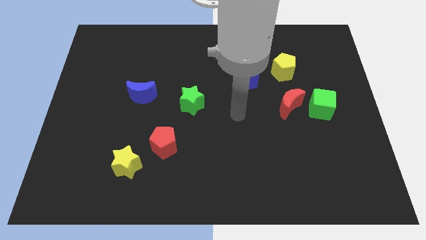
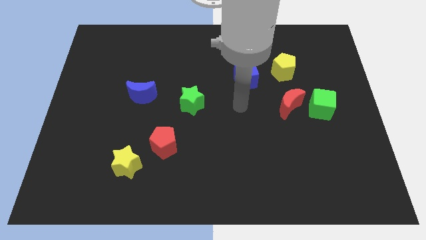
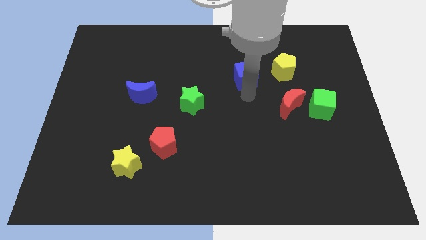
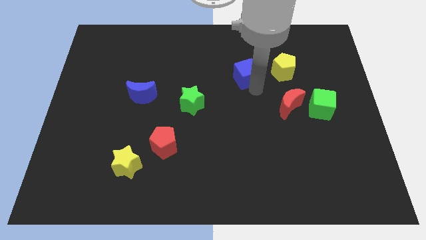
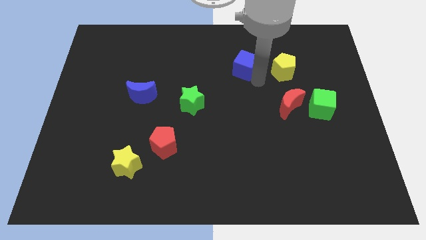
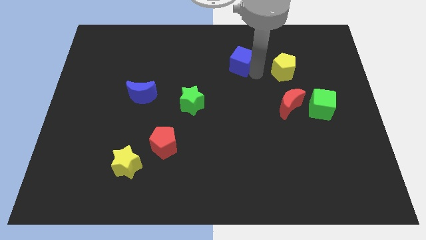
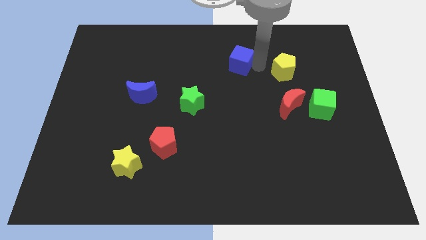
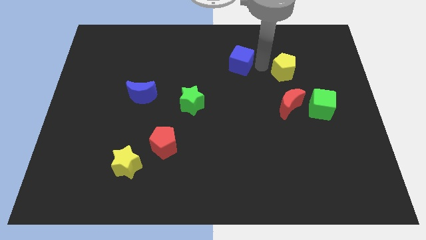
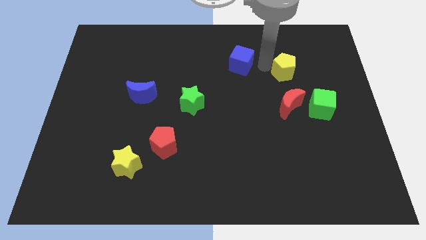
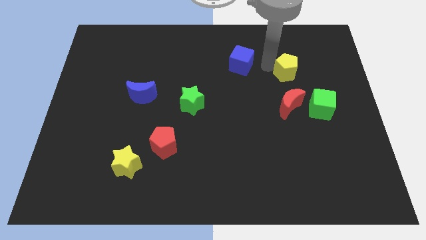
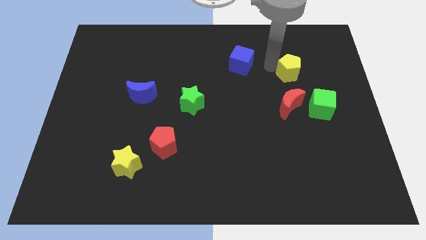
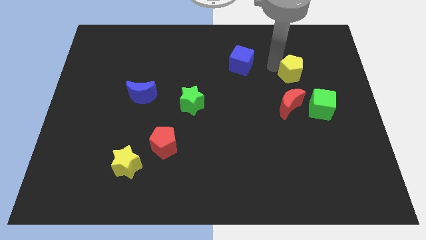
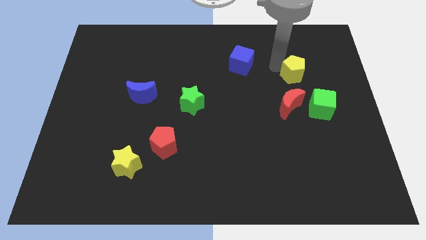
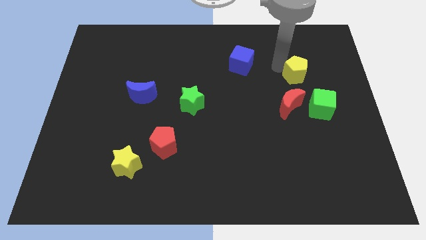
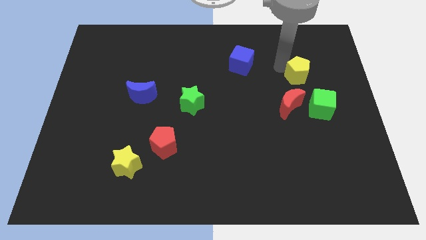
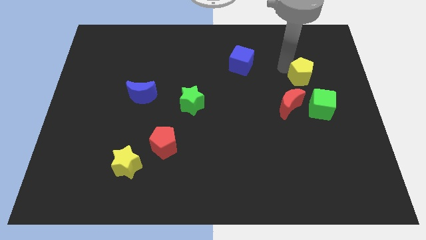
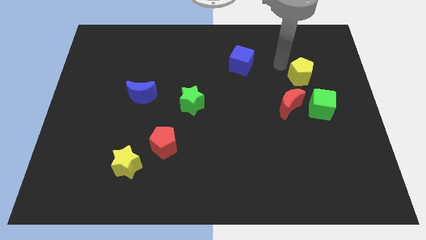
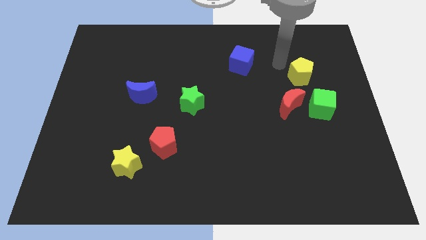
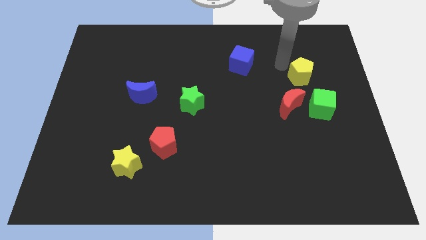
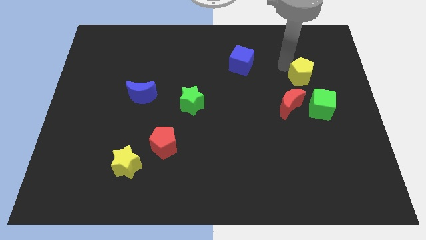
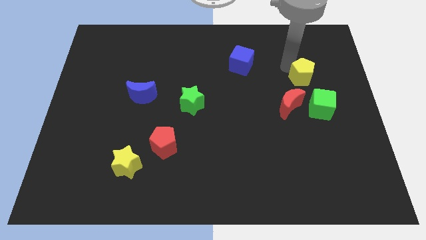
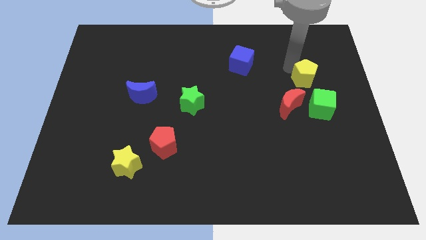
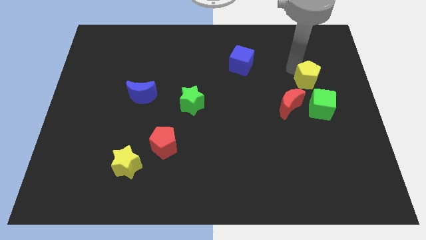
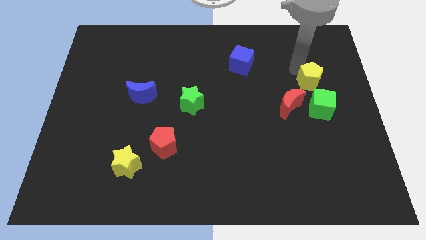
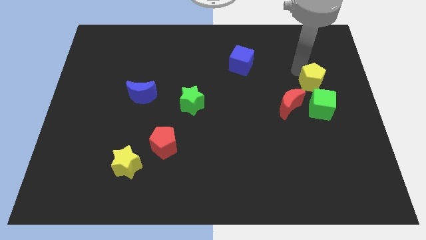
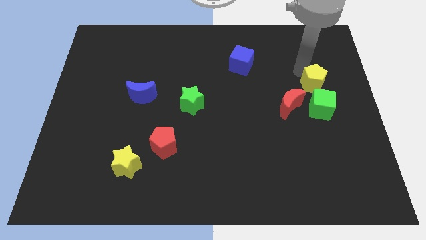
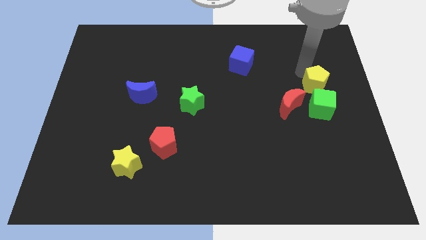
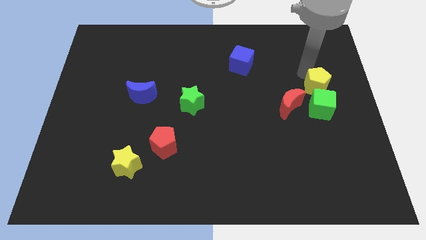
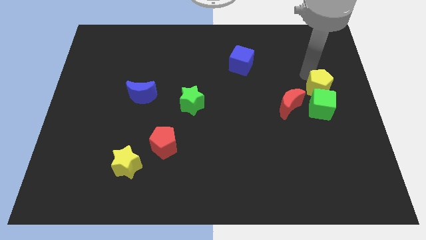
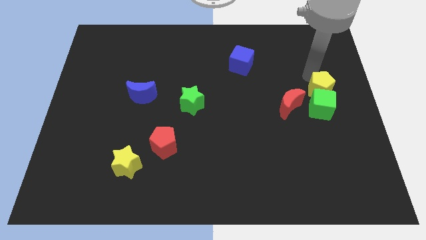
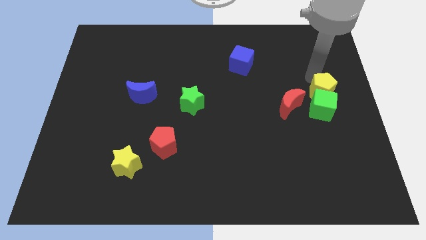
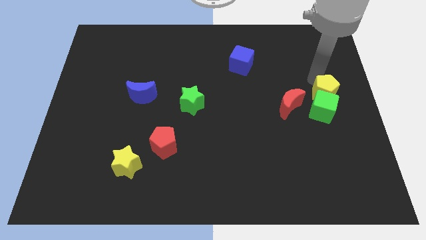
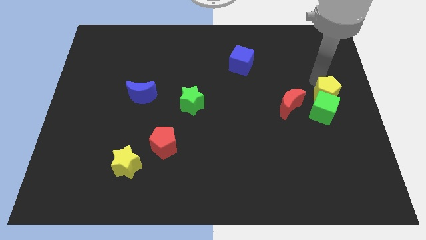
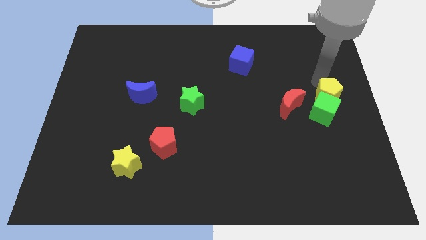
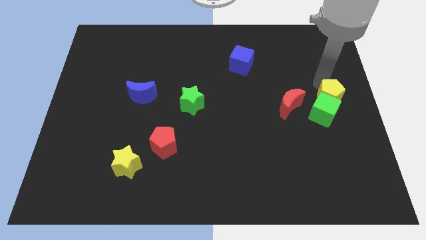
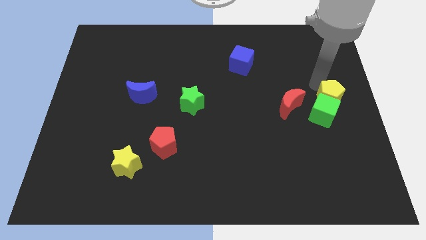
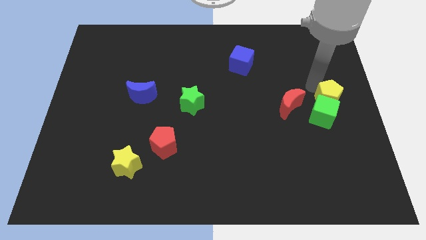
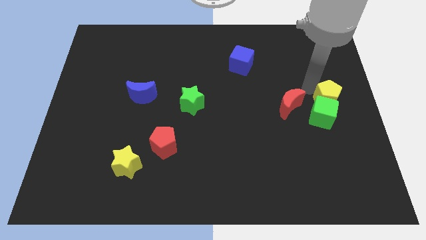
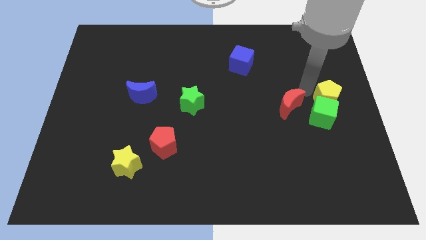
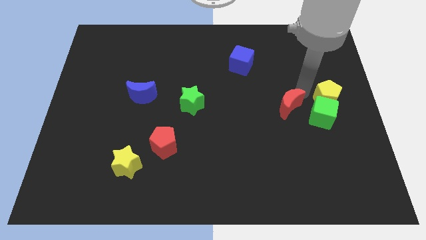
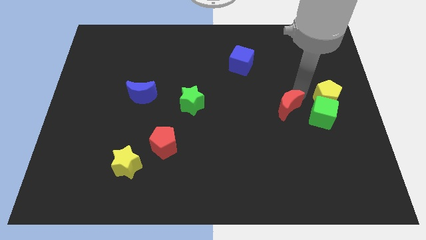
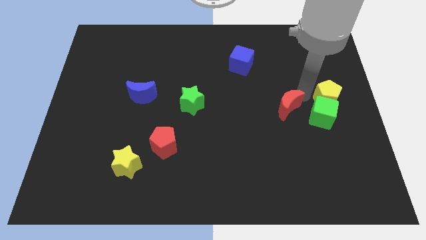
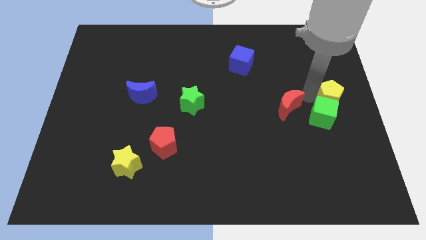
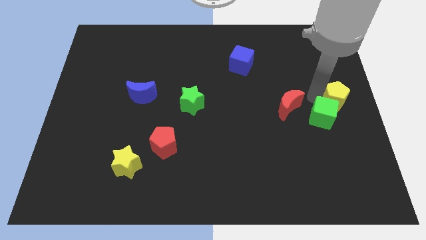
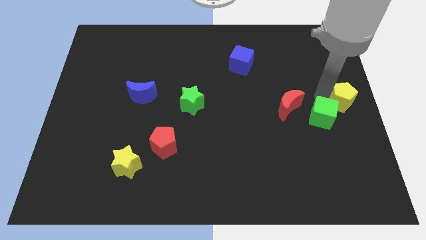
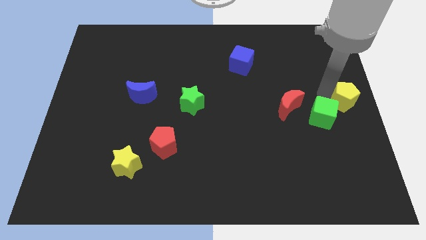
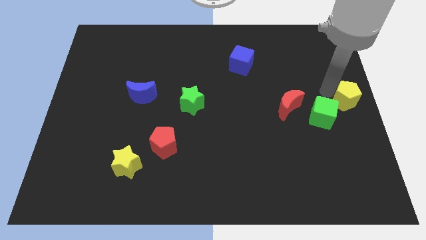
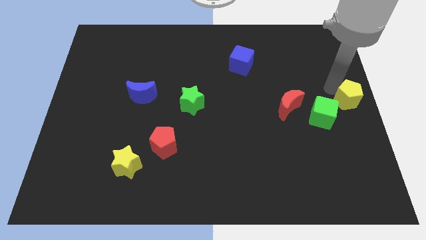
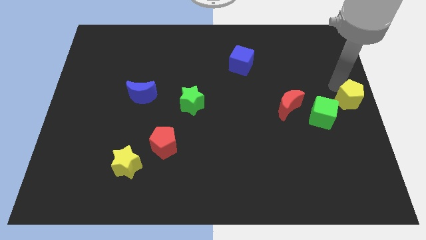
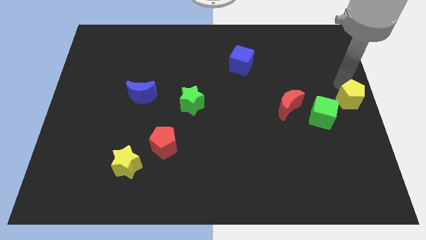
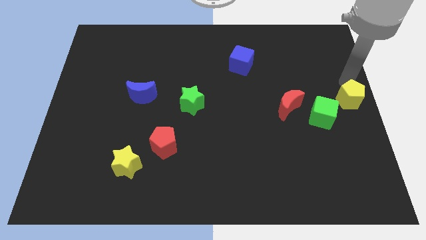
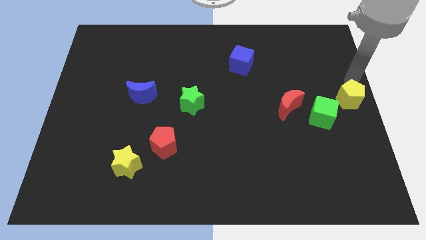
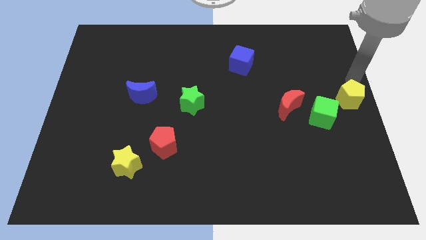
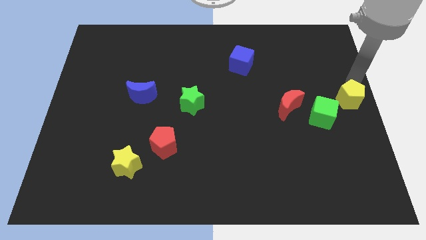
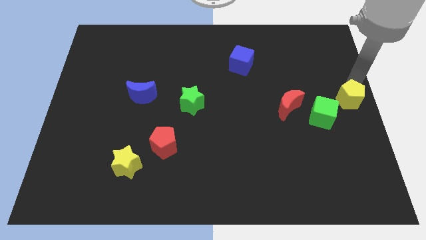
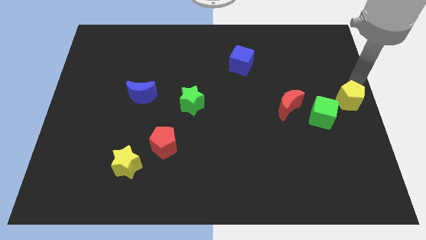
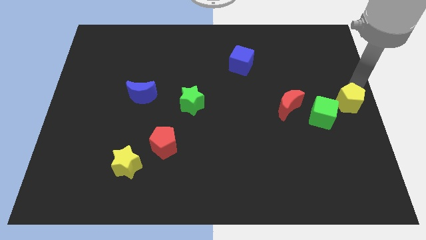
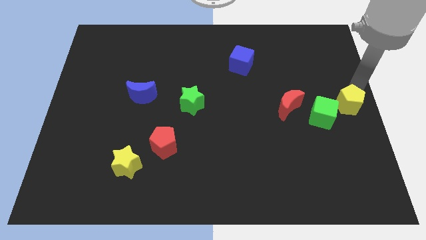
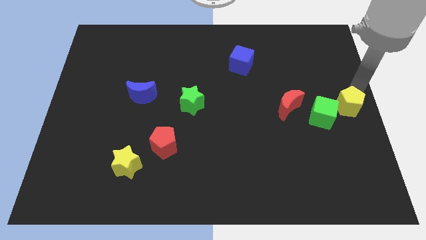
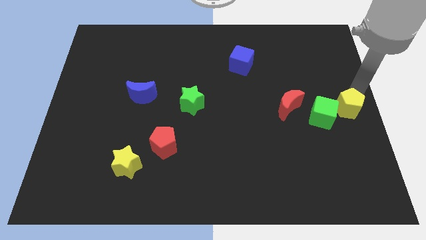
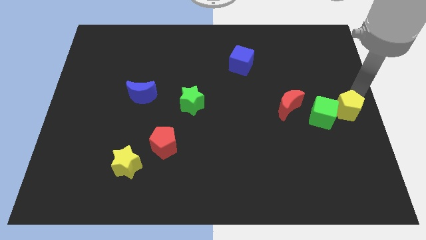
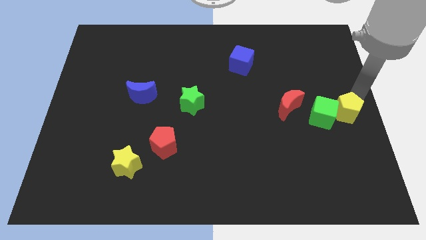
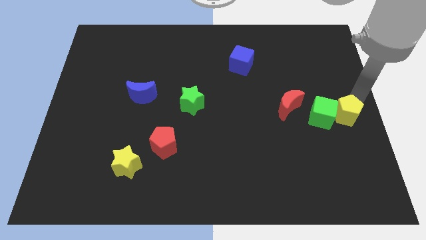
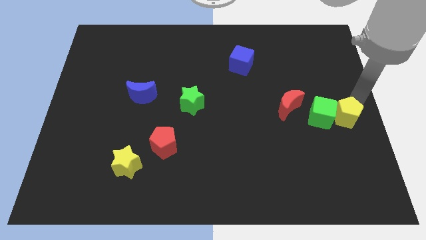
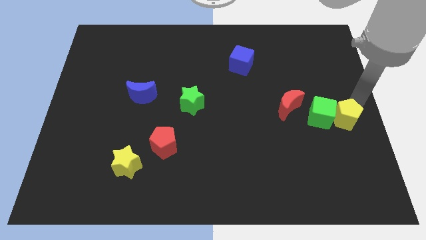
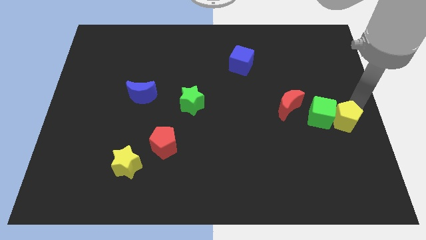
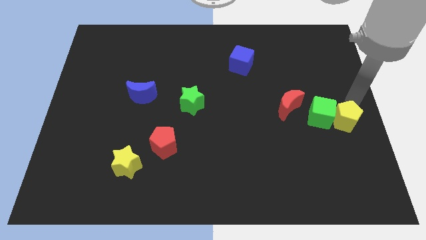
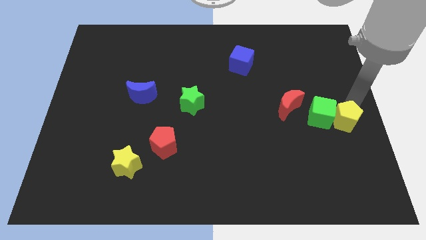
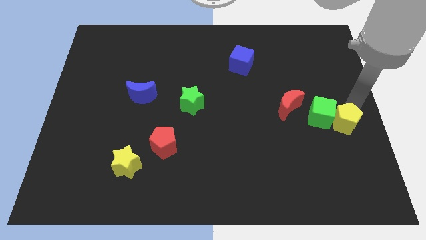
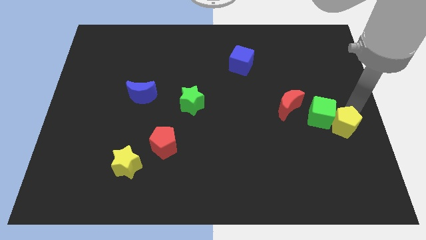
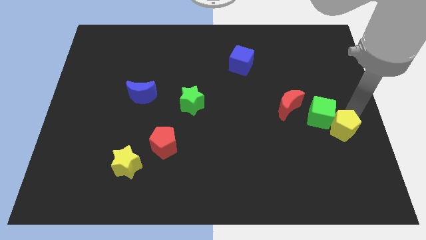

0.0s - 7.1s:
slide the yellow pentagon below the green cube

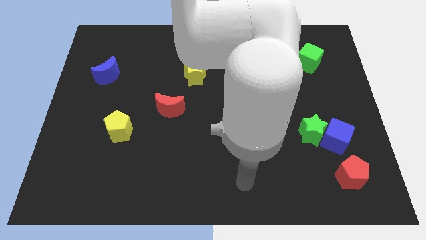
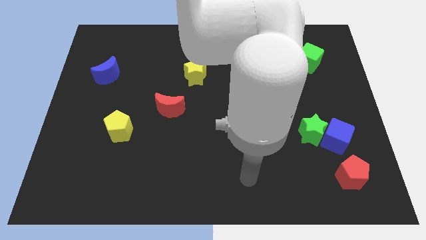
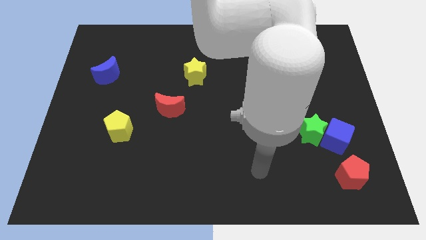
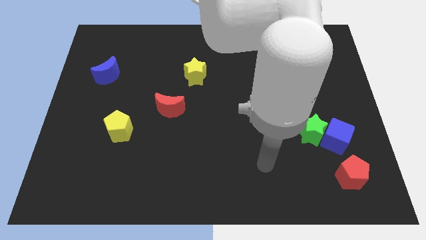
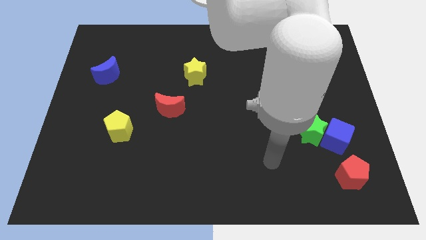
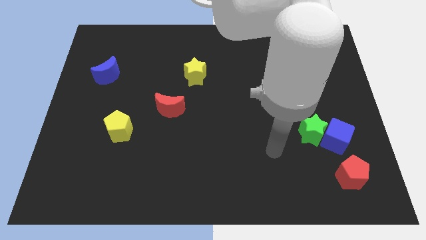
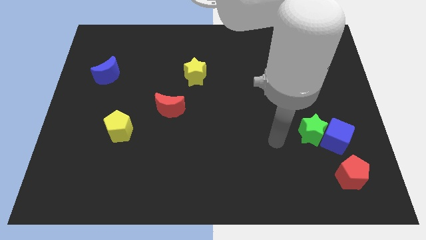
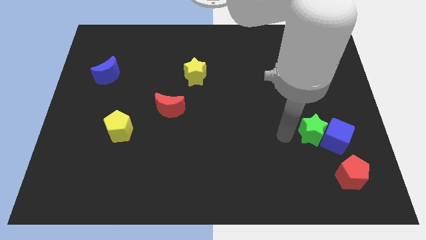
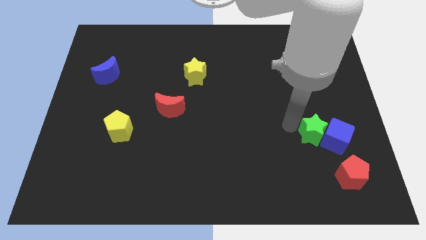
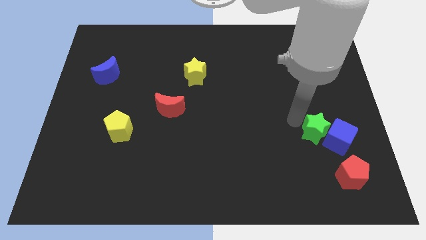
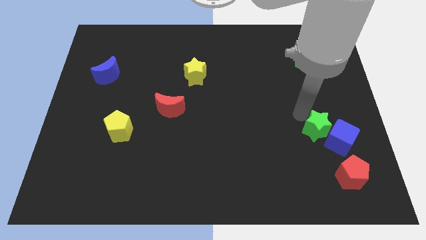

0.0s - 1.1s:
move the blue cube below the green star
